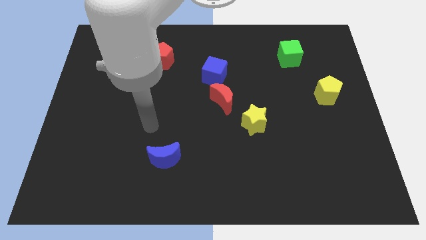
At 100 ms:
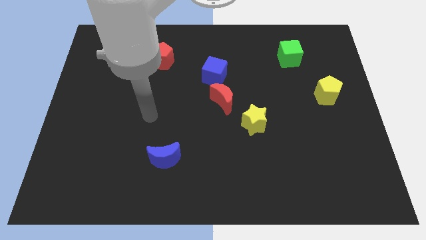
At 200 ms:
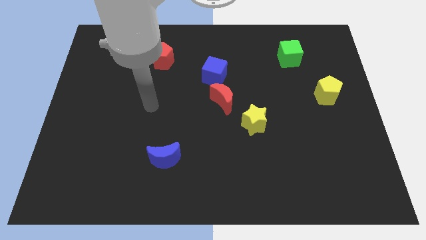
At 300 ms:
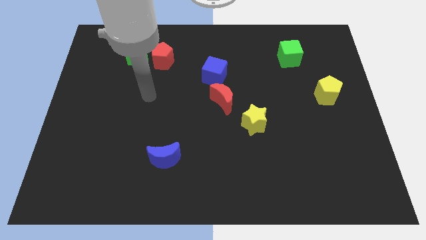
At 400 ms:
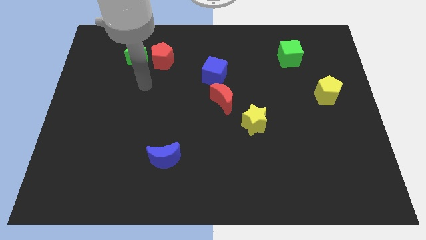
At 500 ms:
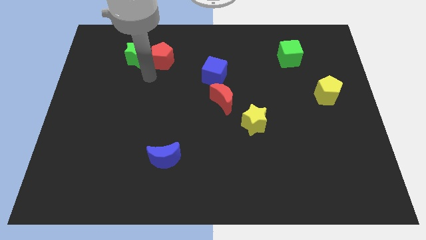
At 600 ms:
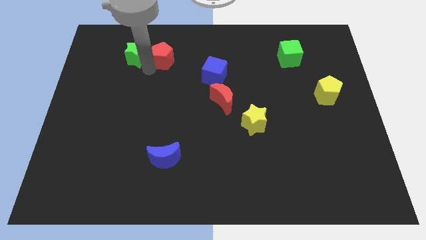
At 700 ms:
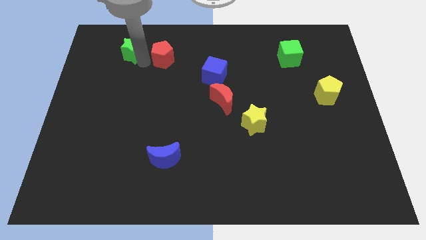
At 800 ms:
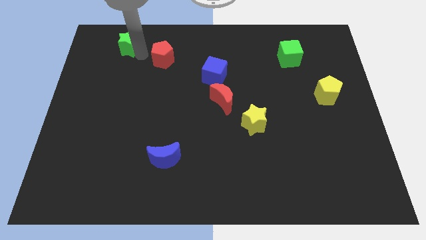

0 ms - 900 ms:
move the red pentagon away from the green star

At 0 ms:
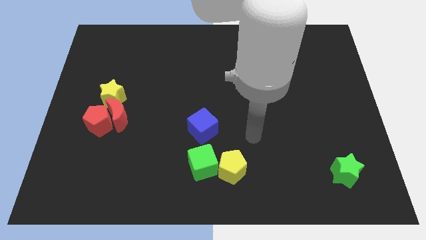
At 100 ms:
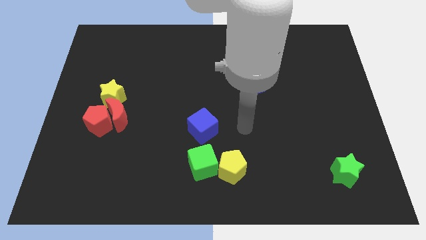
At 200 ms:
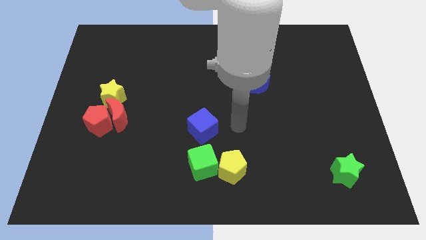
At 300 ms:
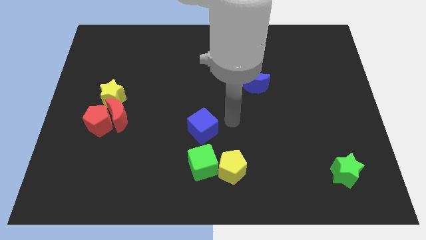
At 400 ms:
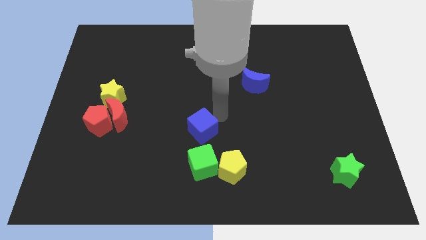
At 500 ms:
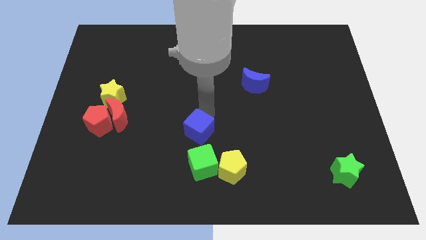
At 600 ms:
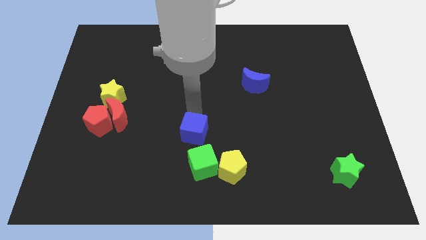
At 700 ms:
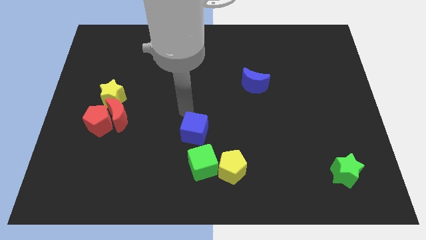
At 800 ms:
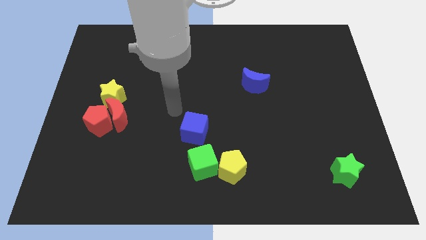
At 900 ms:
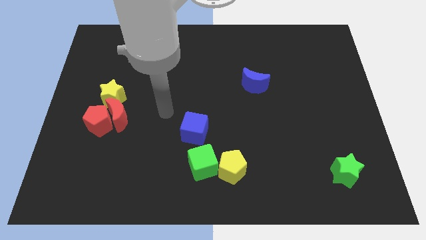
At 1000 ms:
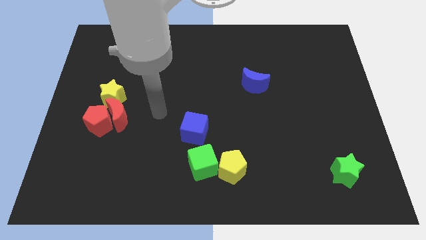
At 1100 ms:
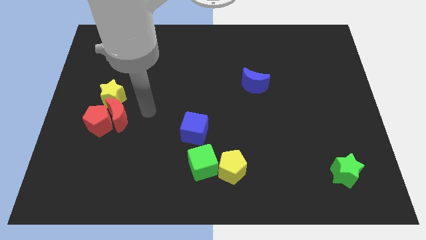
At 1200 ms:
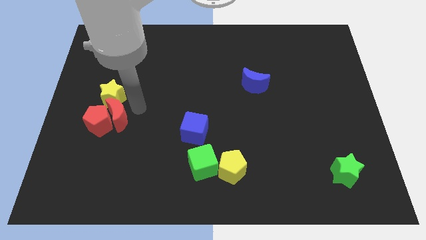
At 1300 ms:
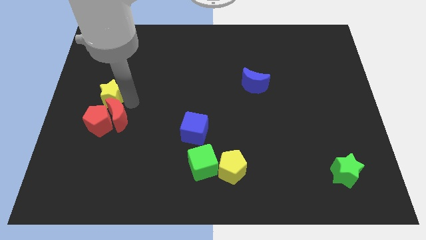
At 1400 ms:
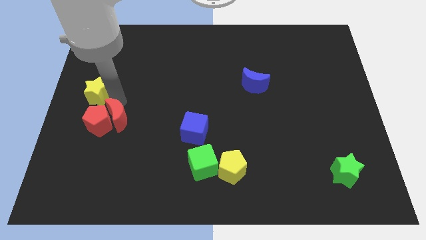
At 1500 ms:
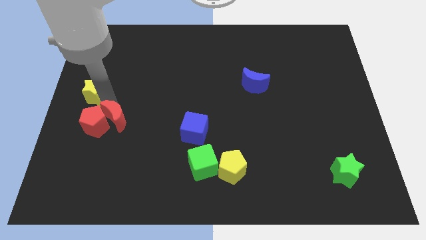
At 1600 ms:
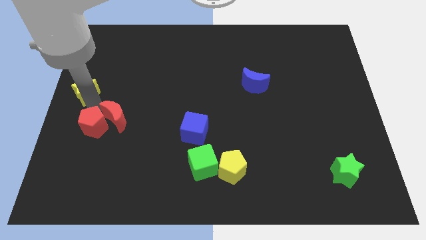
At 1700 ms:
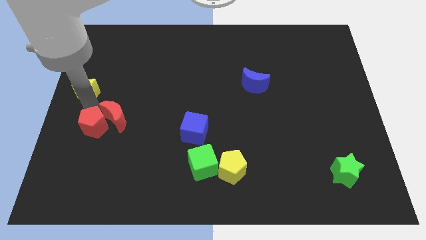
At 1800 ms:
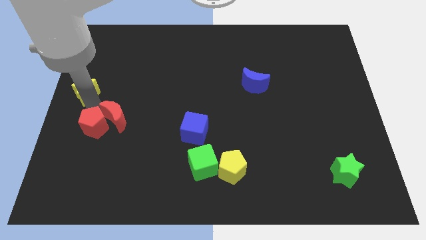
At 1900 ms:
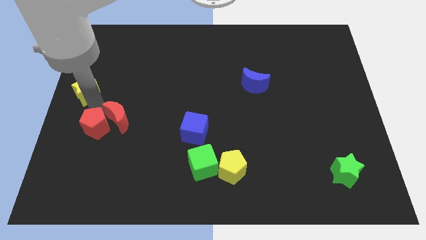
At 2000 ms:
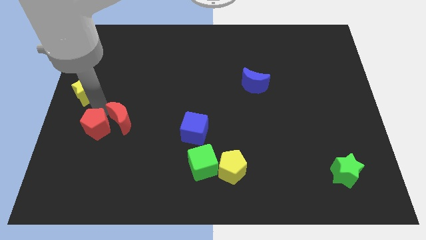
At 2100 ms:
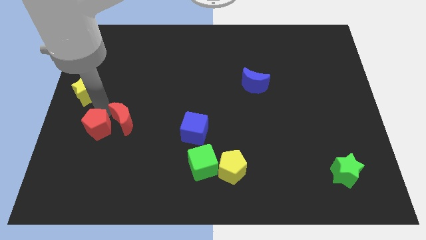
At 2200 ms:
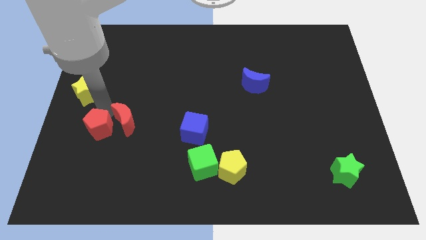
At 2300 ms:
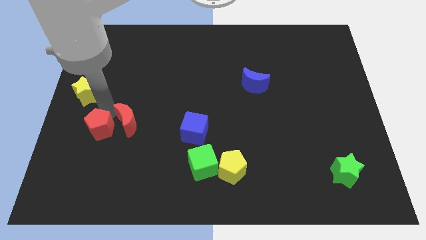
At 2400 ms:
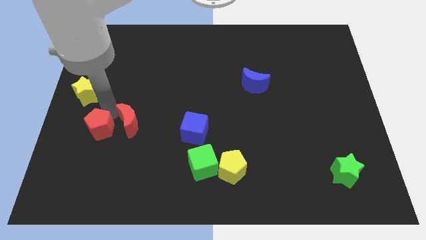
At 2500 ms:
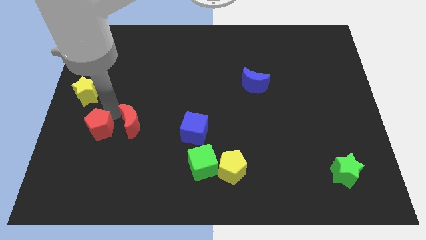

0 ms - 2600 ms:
move the red moon away from the red pentagon and yellow star

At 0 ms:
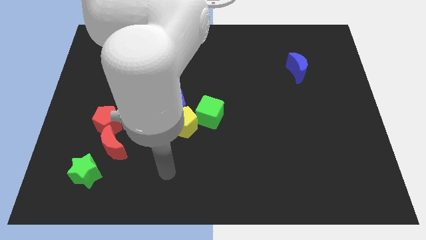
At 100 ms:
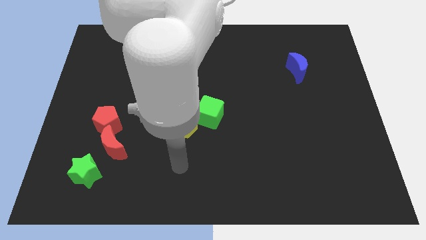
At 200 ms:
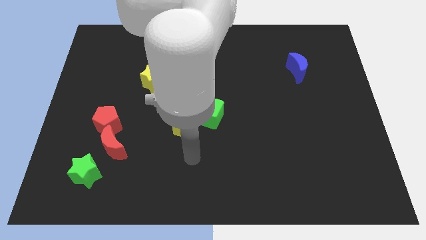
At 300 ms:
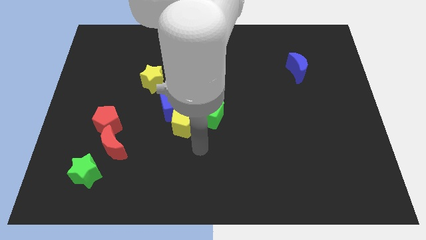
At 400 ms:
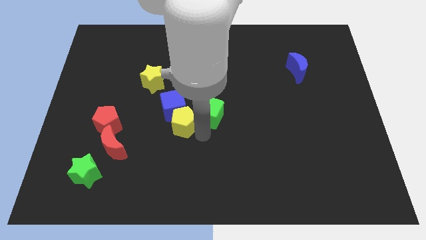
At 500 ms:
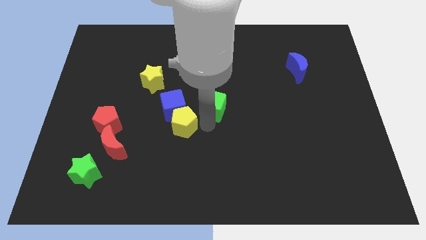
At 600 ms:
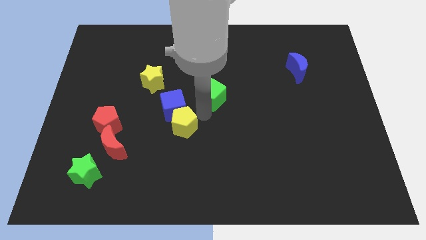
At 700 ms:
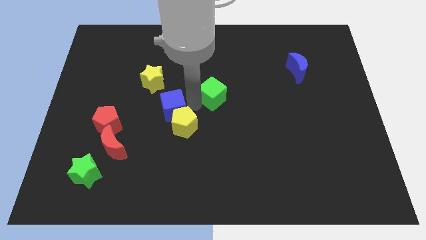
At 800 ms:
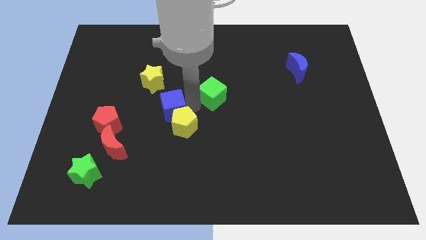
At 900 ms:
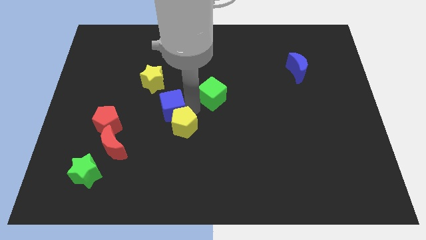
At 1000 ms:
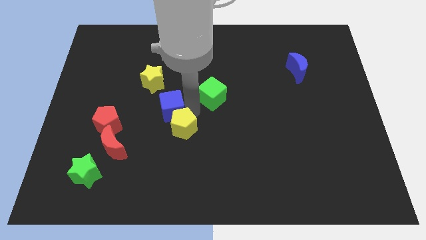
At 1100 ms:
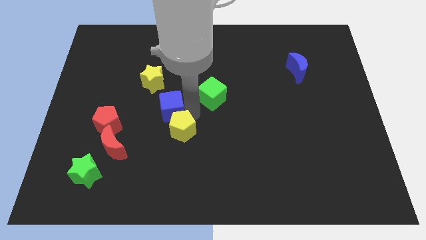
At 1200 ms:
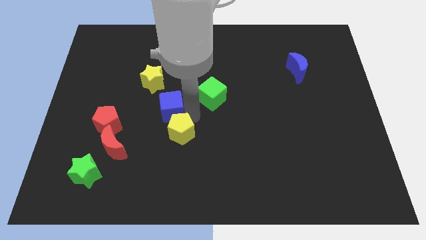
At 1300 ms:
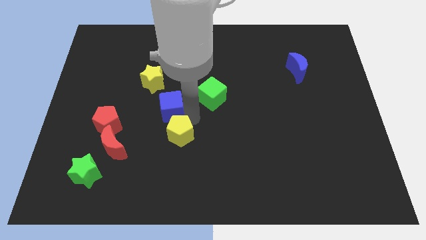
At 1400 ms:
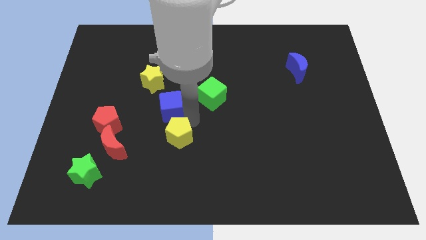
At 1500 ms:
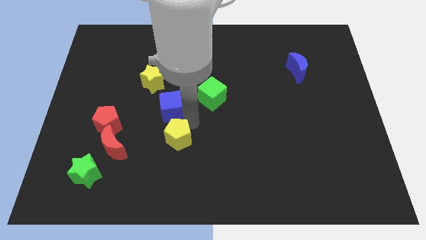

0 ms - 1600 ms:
separate the yellow pentagon from the blue cube and green cube

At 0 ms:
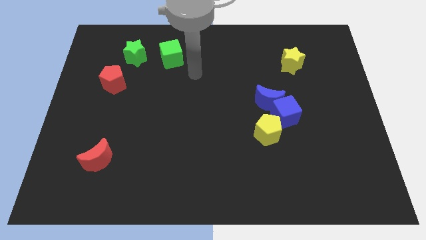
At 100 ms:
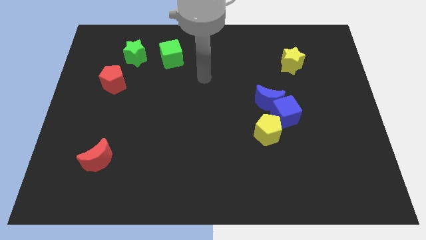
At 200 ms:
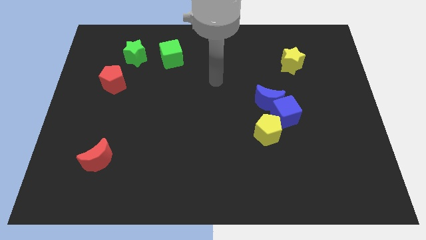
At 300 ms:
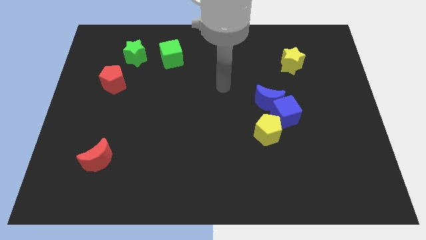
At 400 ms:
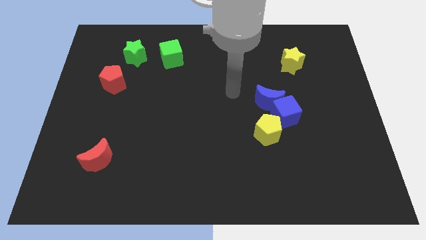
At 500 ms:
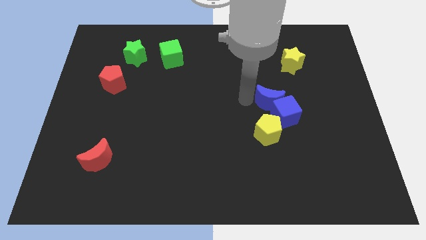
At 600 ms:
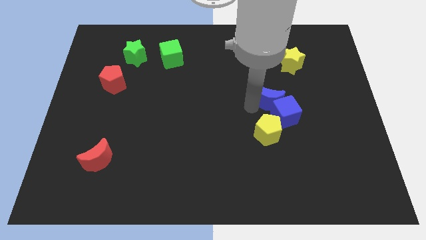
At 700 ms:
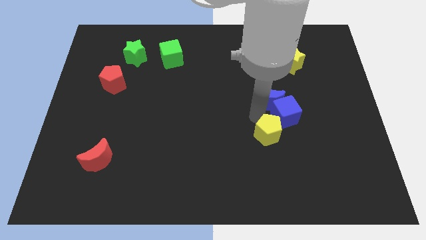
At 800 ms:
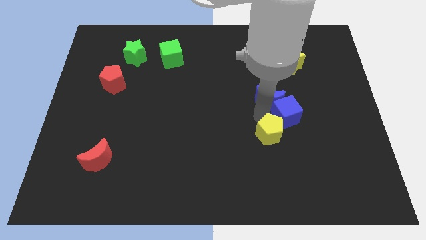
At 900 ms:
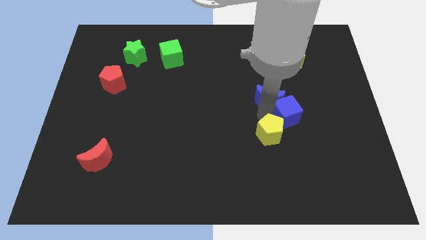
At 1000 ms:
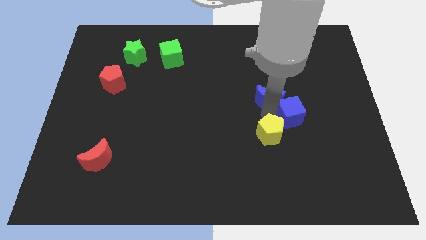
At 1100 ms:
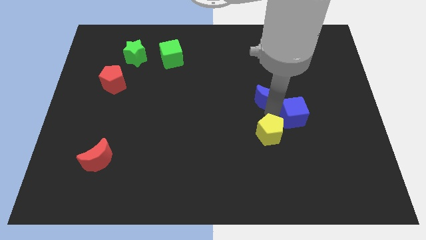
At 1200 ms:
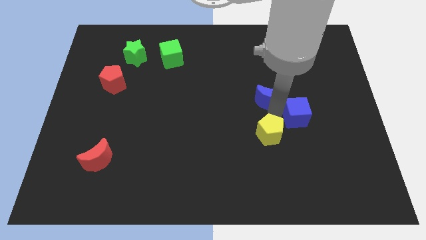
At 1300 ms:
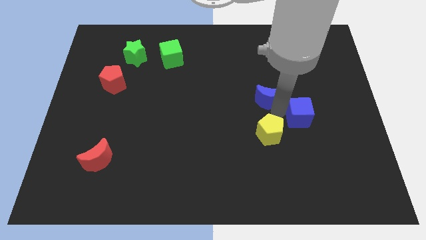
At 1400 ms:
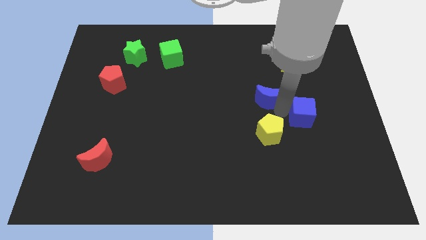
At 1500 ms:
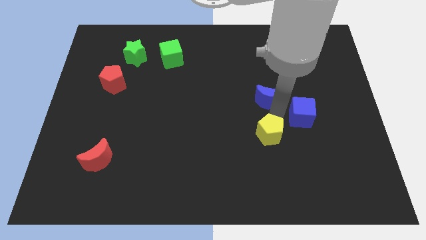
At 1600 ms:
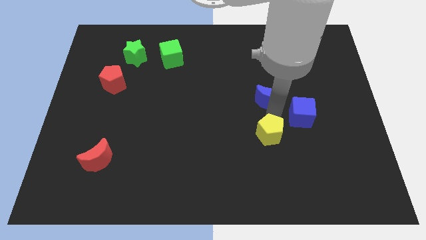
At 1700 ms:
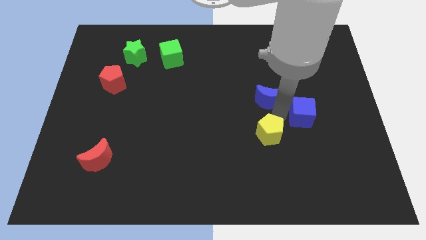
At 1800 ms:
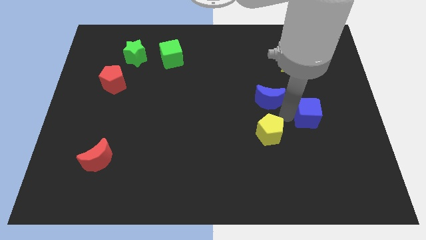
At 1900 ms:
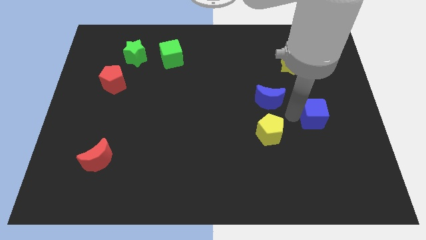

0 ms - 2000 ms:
separate the blue cube from the blue moon and yellow pentagon

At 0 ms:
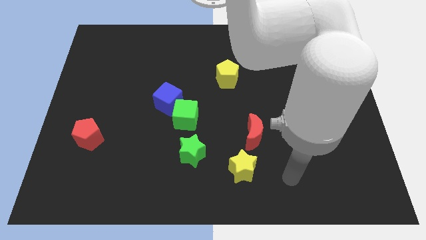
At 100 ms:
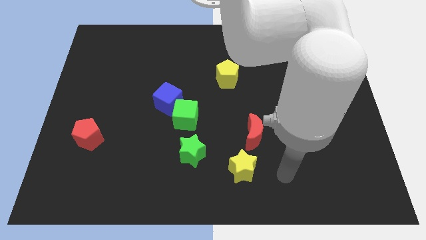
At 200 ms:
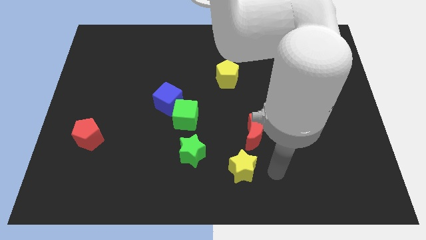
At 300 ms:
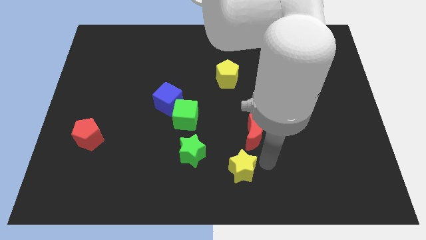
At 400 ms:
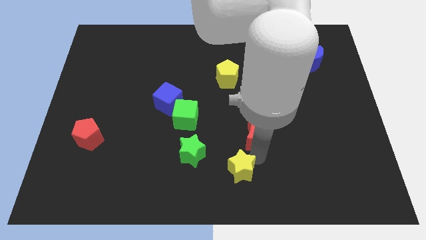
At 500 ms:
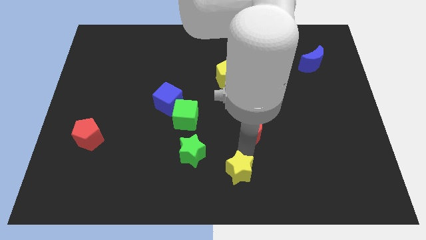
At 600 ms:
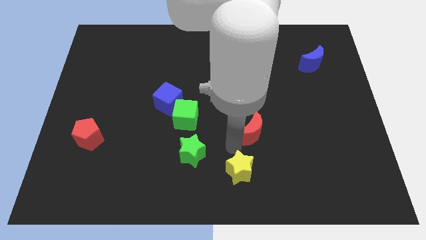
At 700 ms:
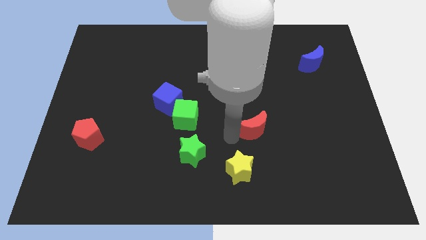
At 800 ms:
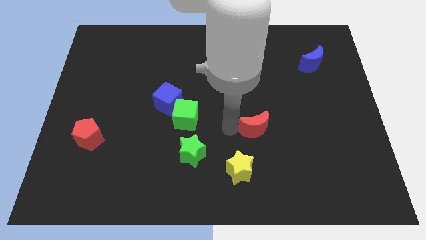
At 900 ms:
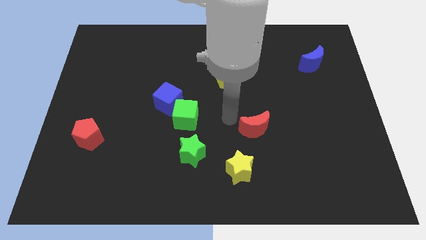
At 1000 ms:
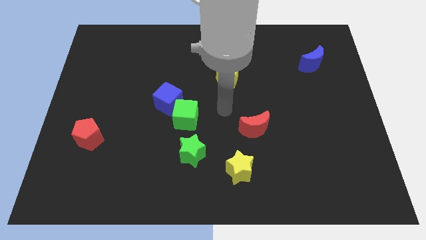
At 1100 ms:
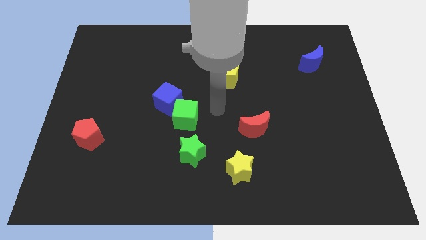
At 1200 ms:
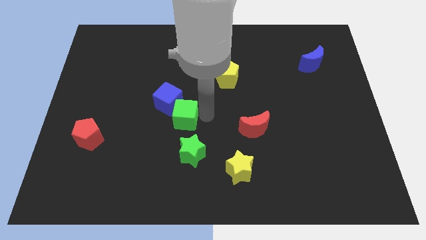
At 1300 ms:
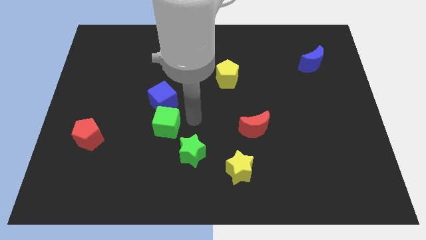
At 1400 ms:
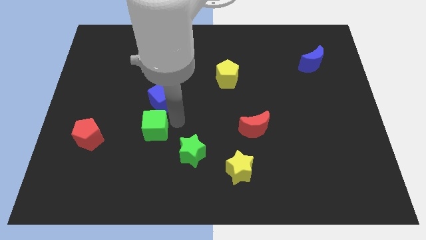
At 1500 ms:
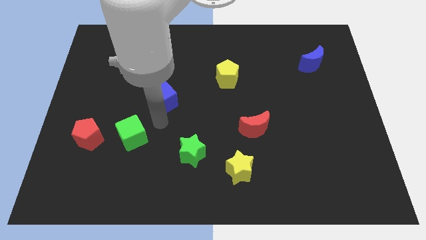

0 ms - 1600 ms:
separate the blue cube from the green cube

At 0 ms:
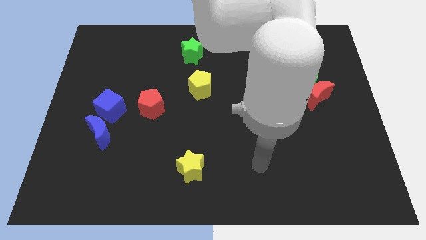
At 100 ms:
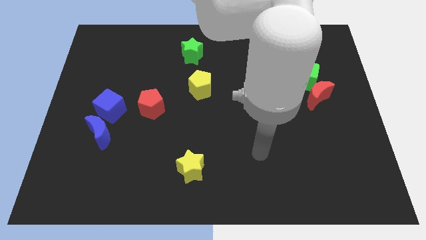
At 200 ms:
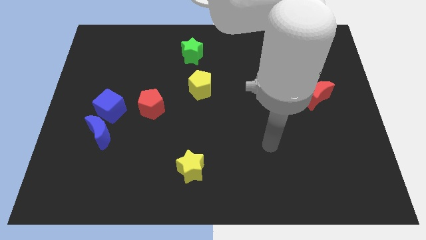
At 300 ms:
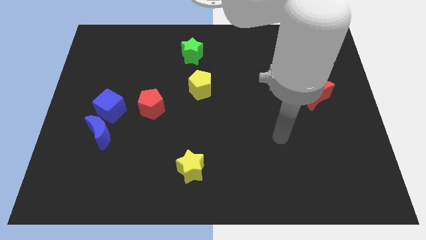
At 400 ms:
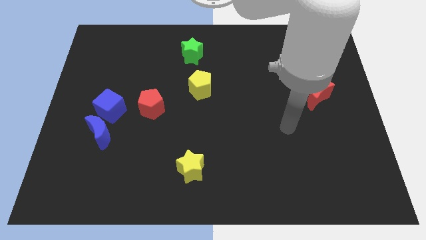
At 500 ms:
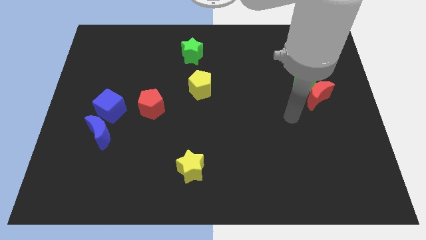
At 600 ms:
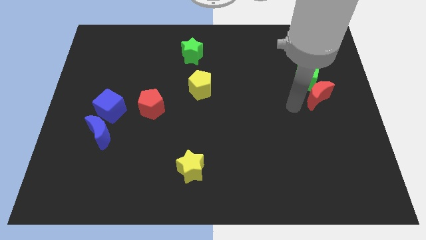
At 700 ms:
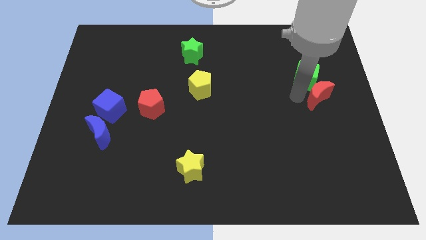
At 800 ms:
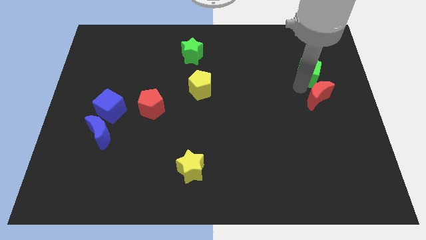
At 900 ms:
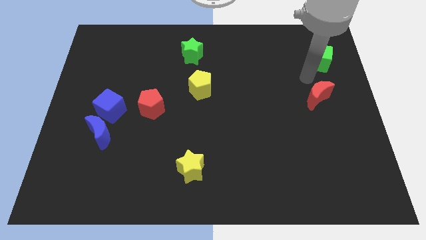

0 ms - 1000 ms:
separate the red moon from the green cube
